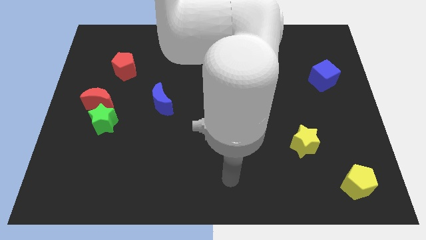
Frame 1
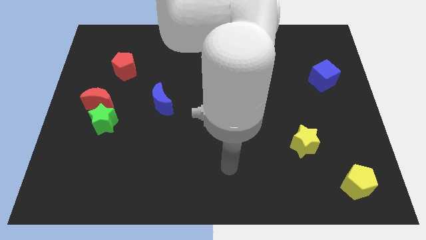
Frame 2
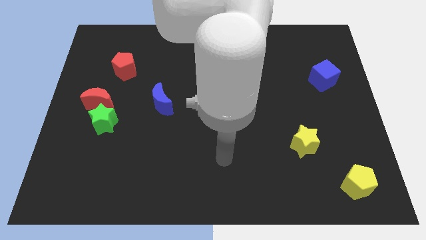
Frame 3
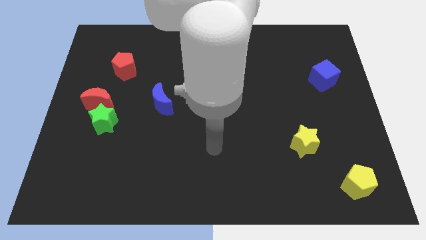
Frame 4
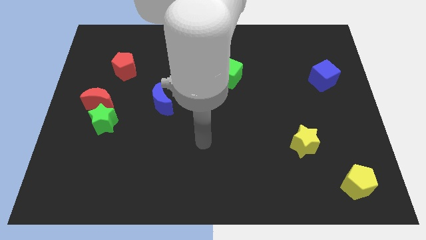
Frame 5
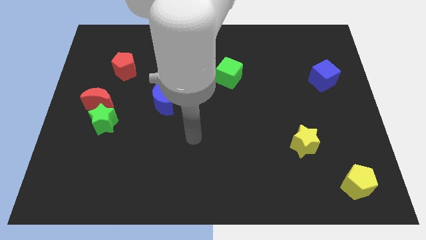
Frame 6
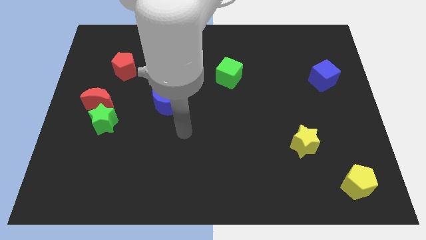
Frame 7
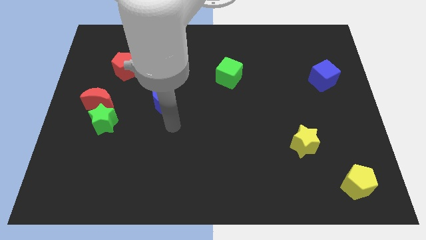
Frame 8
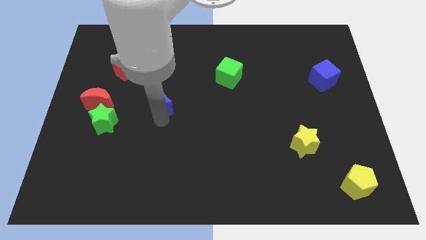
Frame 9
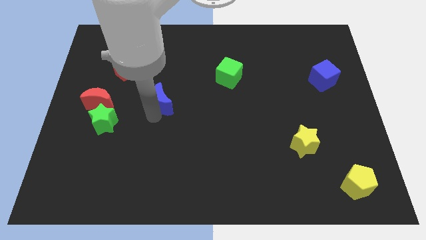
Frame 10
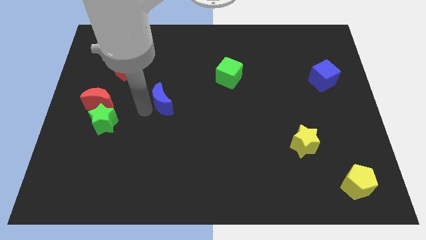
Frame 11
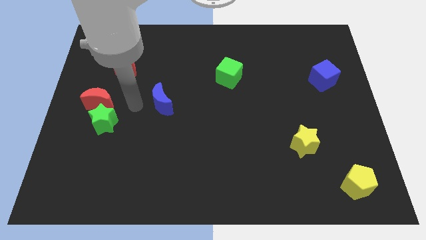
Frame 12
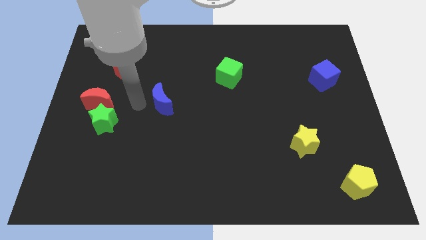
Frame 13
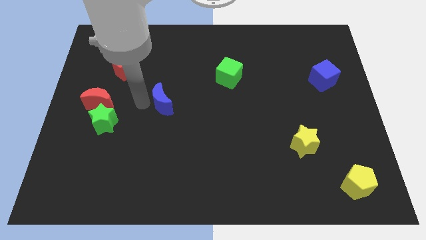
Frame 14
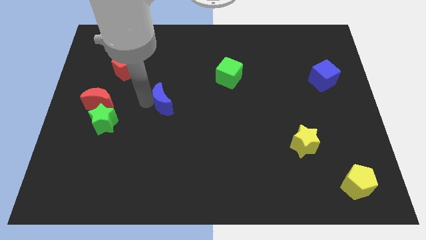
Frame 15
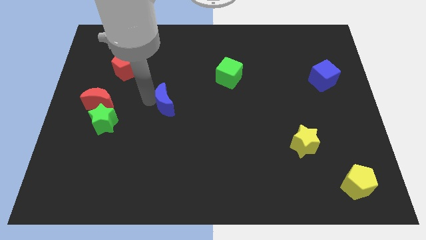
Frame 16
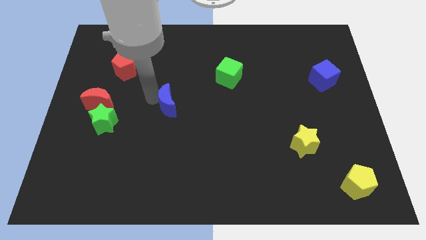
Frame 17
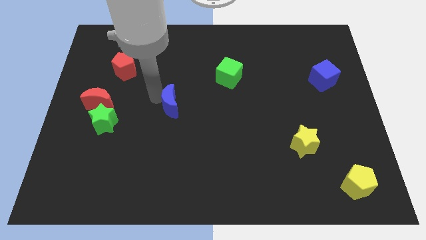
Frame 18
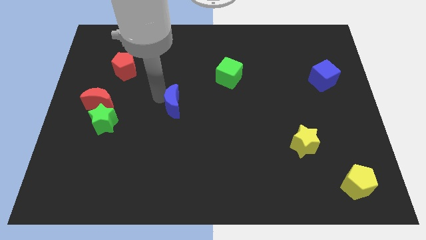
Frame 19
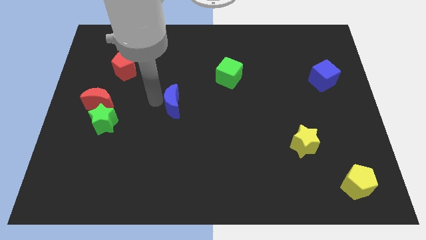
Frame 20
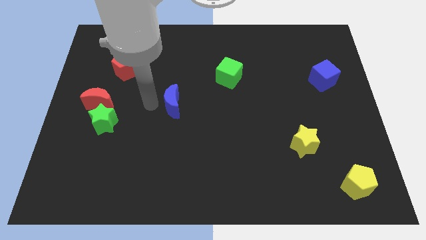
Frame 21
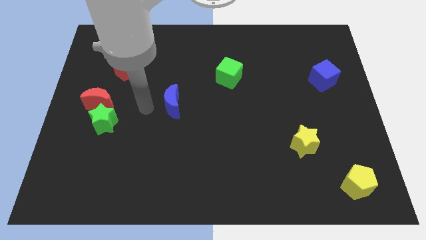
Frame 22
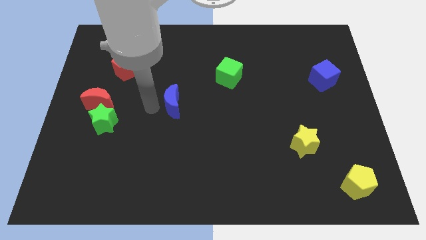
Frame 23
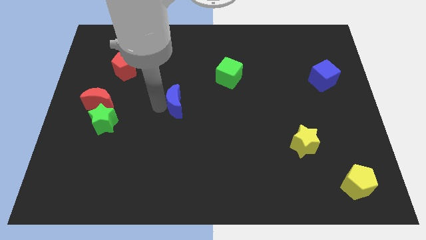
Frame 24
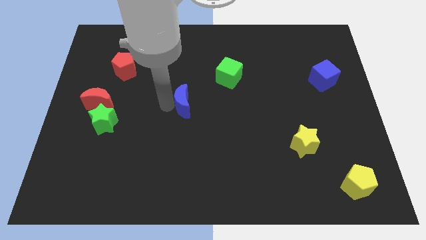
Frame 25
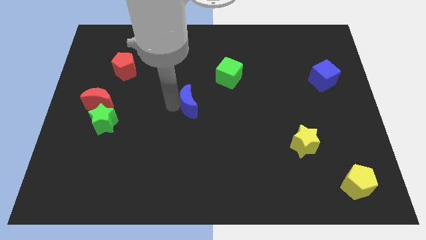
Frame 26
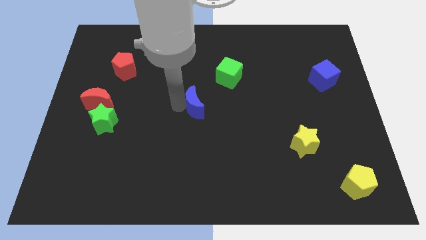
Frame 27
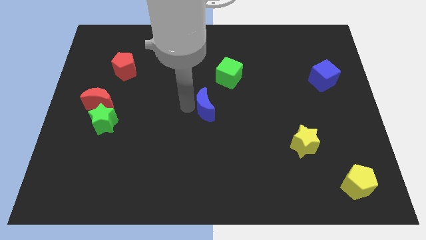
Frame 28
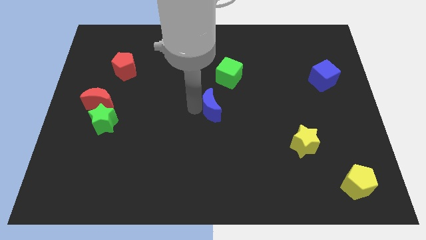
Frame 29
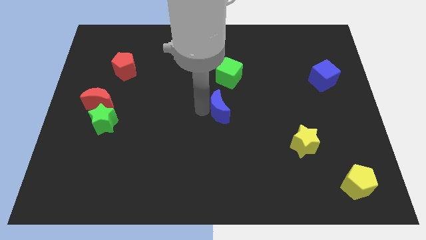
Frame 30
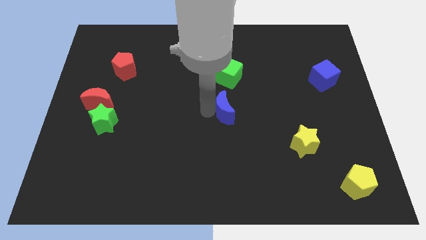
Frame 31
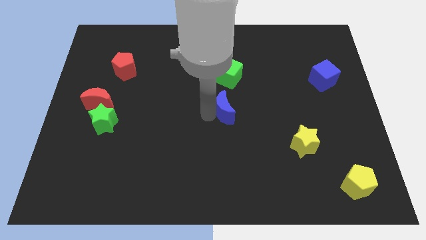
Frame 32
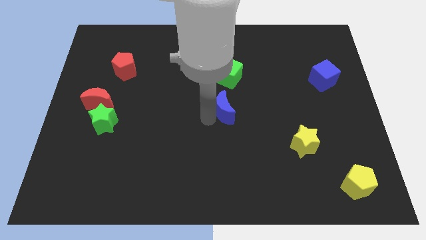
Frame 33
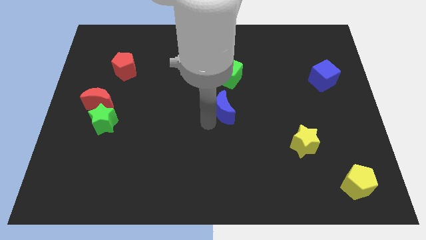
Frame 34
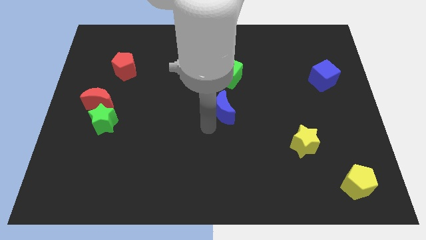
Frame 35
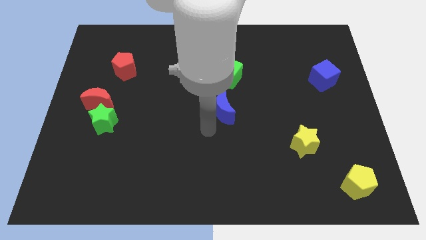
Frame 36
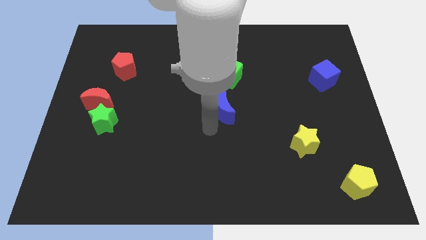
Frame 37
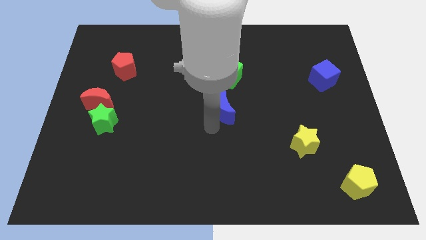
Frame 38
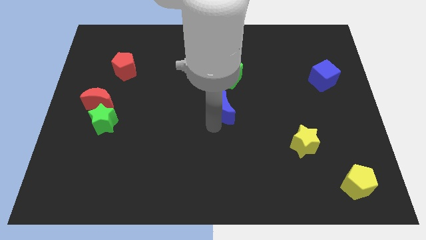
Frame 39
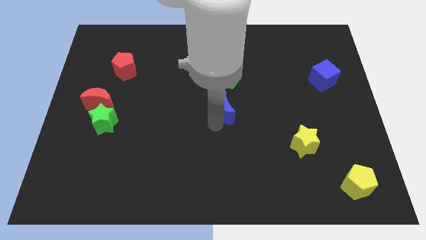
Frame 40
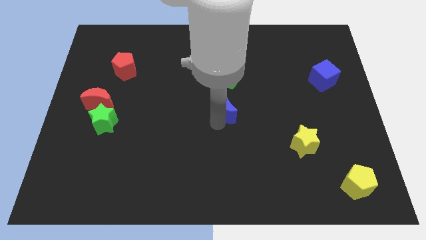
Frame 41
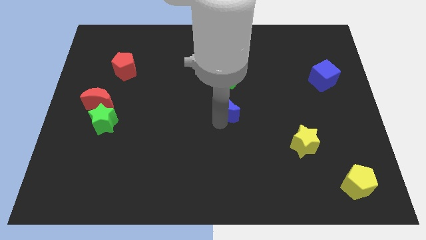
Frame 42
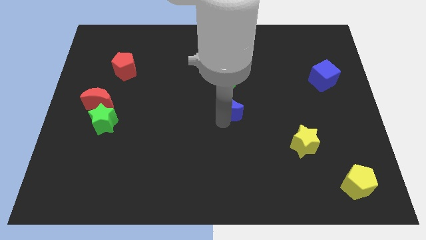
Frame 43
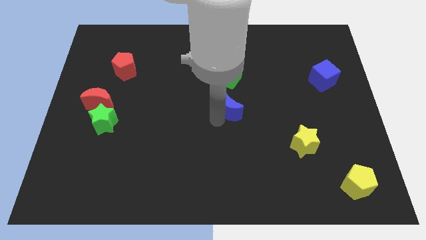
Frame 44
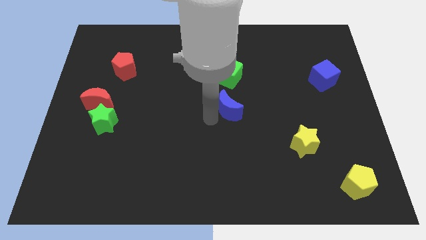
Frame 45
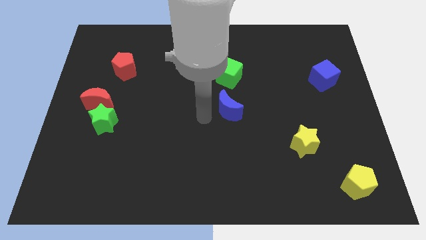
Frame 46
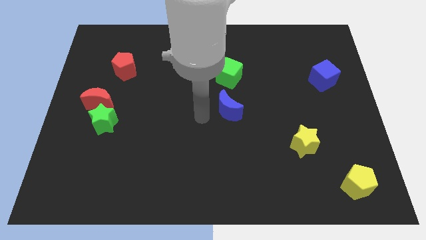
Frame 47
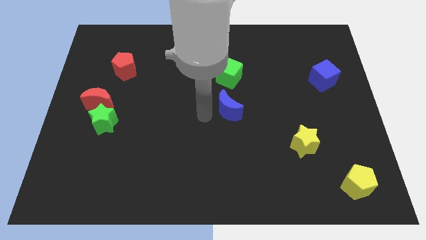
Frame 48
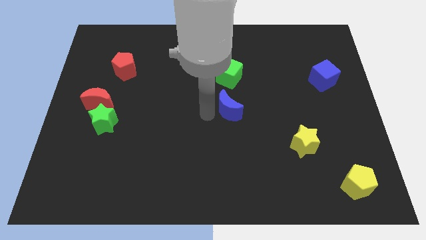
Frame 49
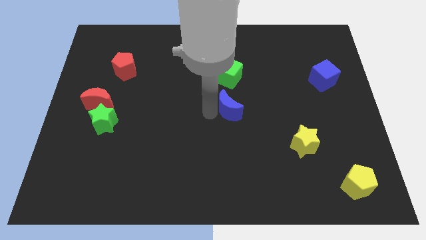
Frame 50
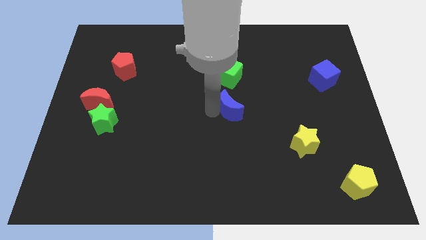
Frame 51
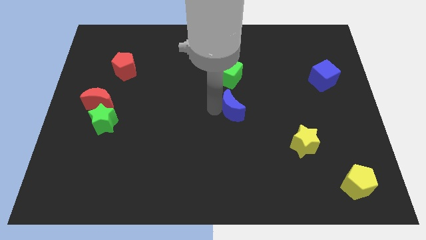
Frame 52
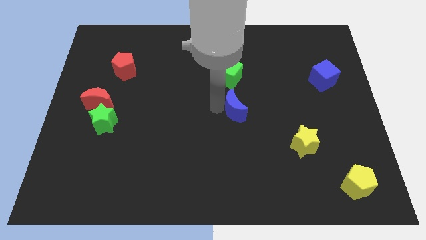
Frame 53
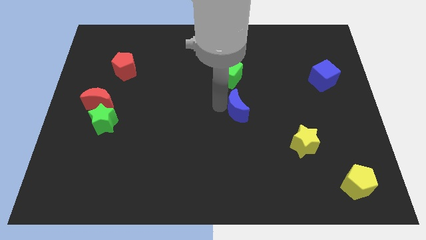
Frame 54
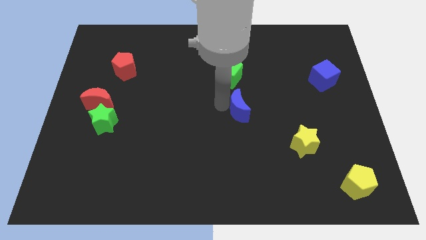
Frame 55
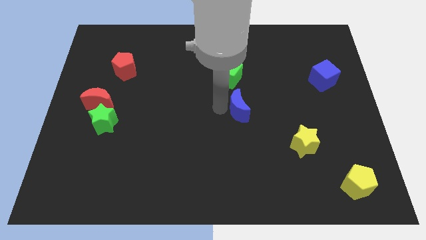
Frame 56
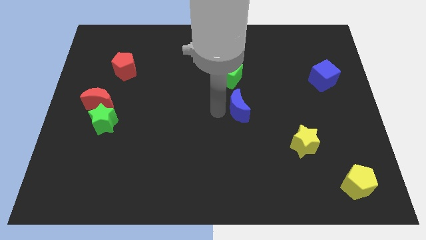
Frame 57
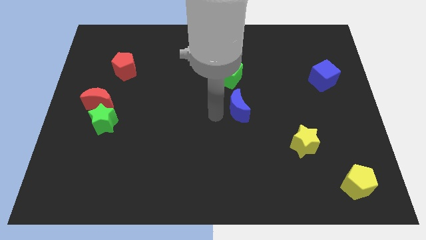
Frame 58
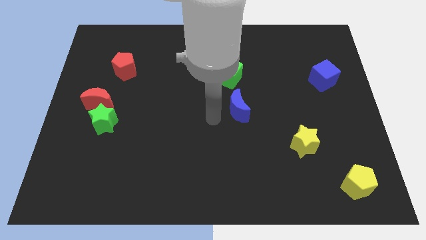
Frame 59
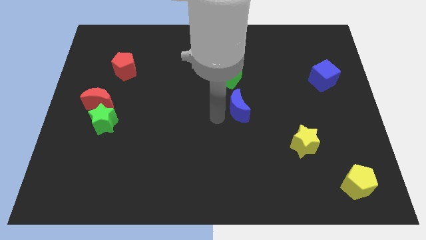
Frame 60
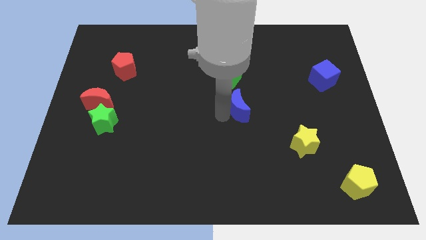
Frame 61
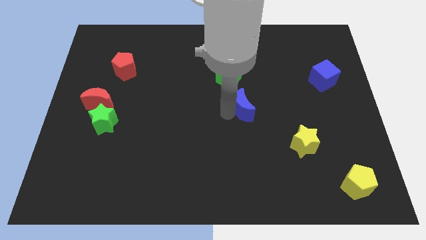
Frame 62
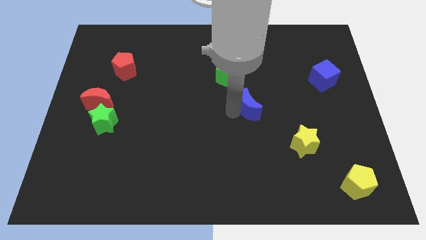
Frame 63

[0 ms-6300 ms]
slide the blue moon to the right

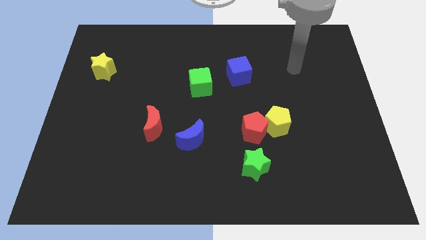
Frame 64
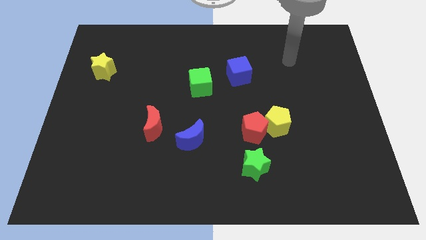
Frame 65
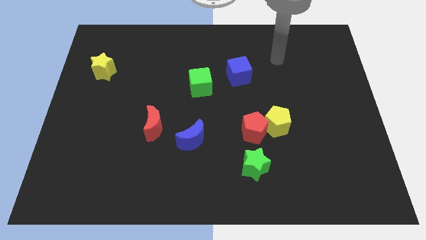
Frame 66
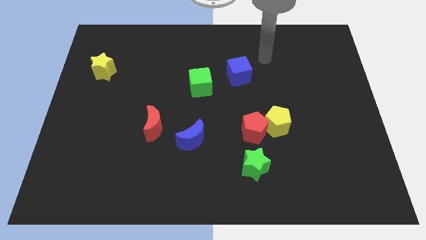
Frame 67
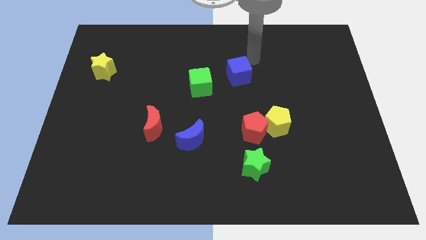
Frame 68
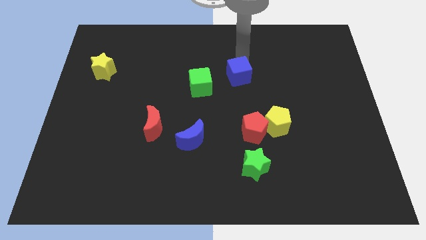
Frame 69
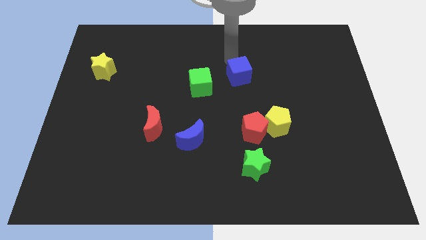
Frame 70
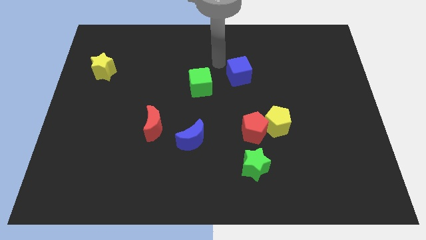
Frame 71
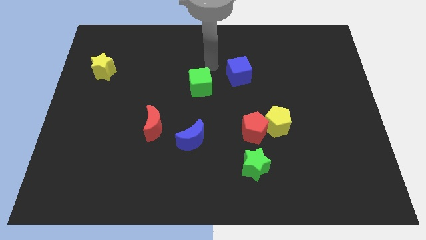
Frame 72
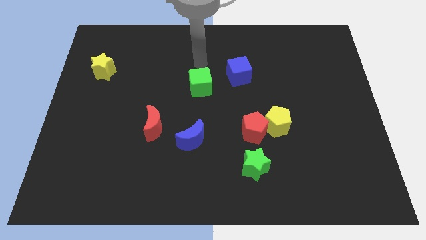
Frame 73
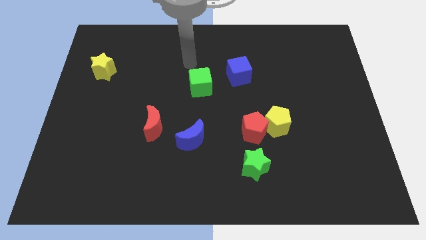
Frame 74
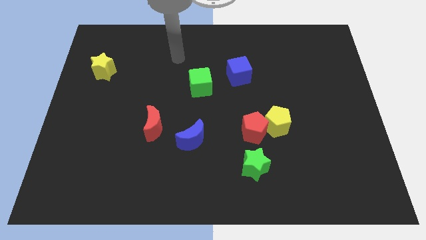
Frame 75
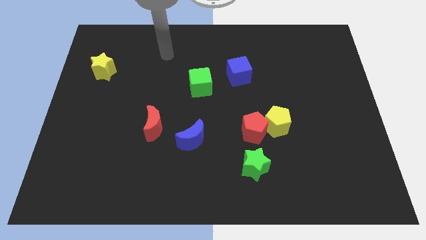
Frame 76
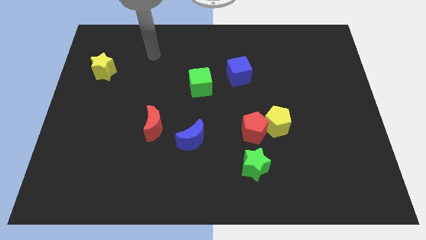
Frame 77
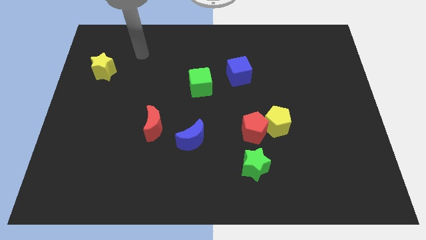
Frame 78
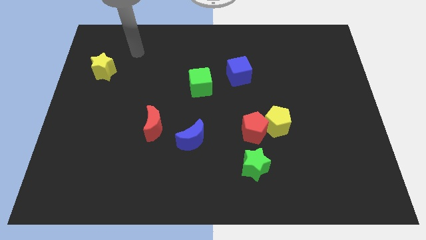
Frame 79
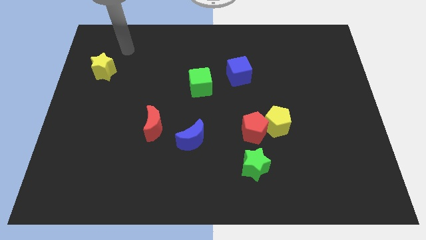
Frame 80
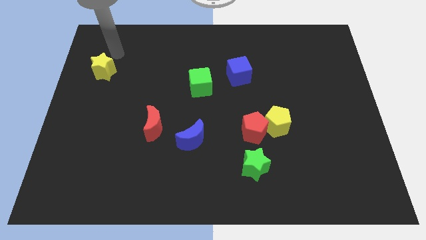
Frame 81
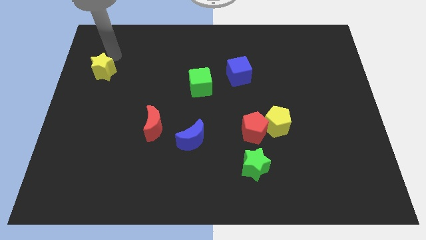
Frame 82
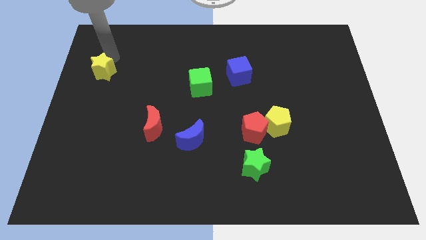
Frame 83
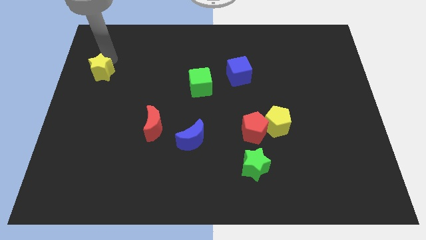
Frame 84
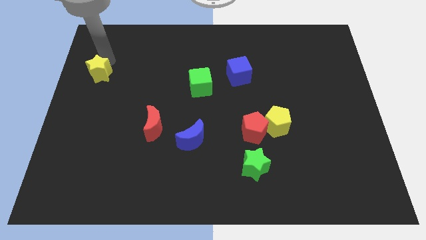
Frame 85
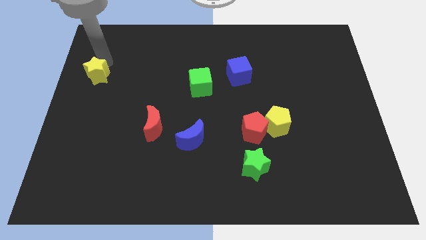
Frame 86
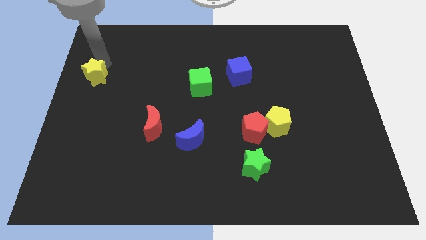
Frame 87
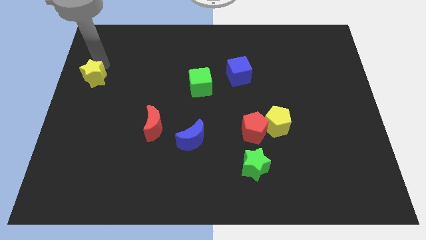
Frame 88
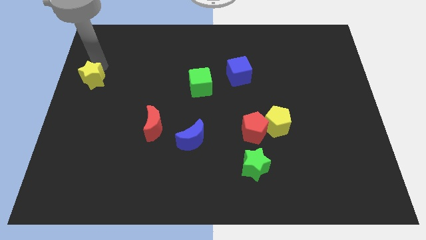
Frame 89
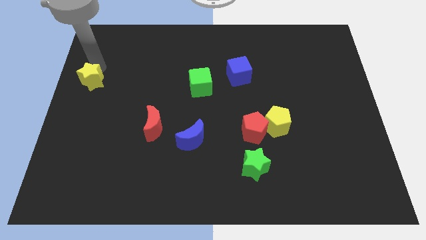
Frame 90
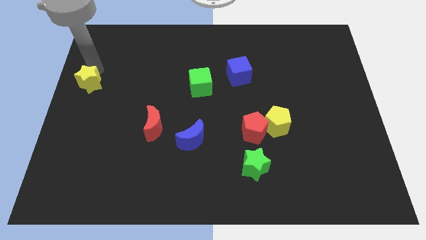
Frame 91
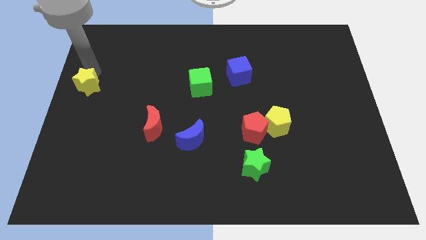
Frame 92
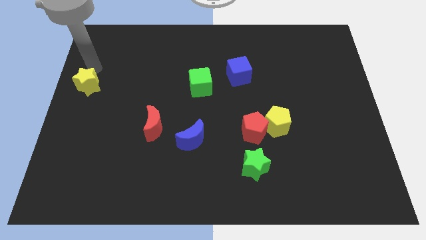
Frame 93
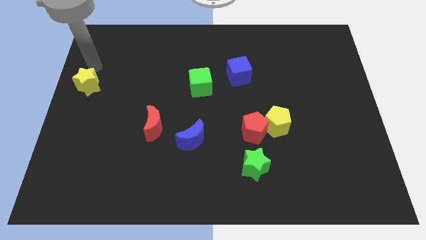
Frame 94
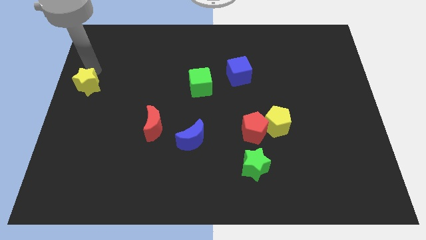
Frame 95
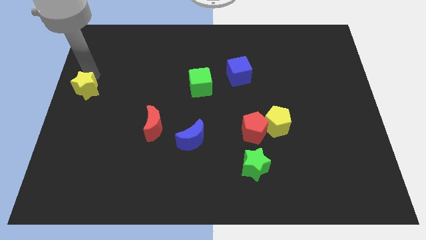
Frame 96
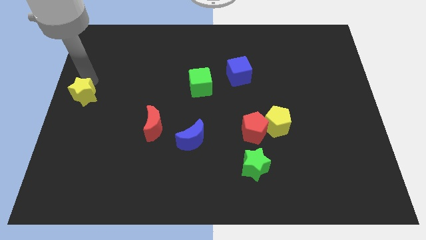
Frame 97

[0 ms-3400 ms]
push the yellow star down a little
